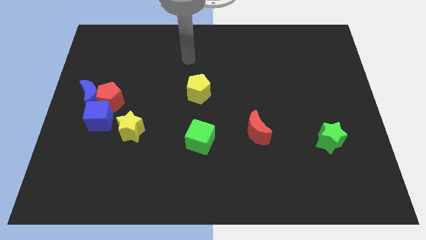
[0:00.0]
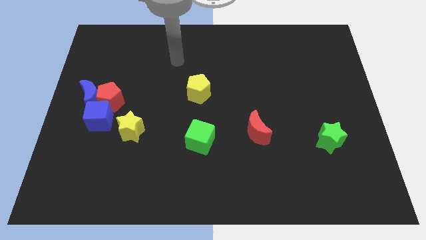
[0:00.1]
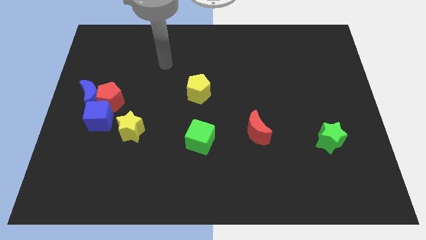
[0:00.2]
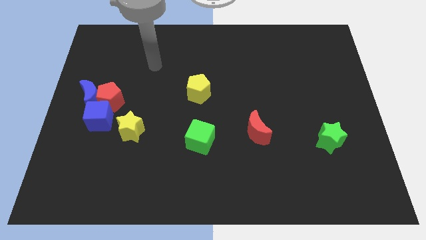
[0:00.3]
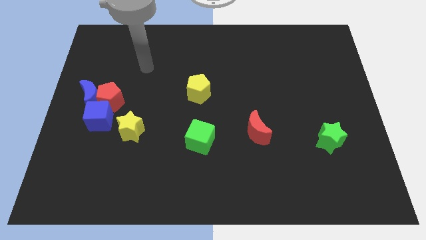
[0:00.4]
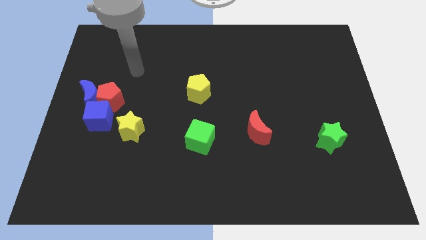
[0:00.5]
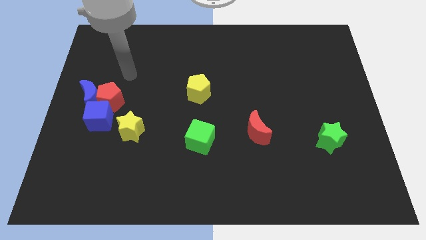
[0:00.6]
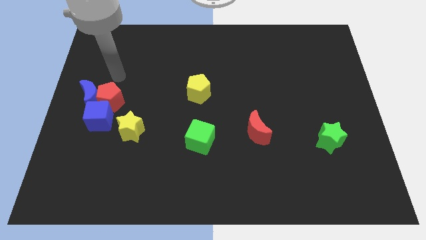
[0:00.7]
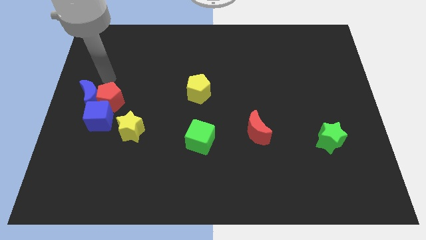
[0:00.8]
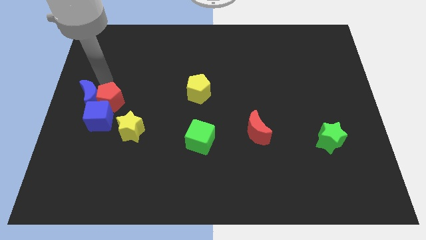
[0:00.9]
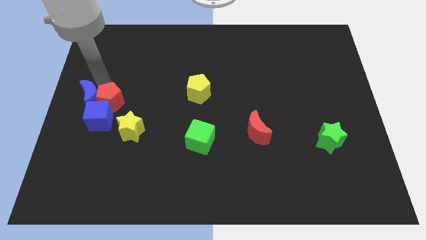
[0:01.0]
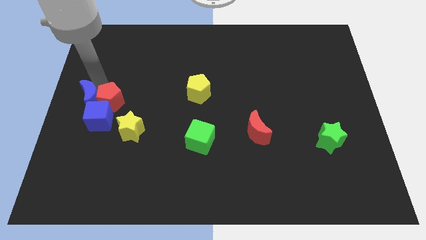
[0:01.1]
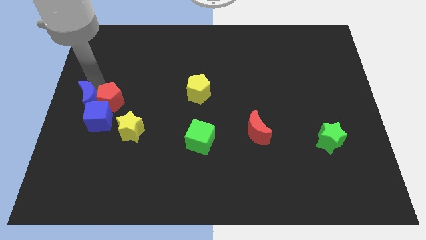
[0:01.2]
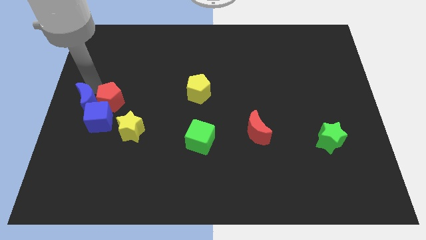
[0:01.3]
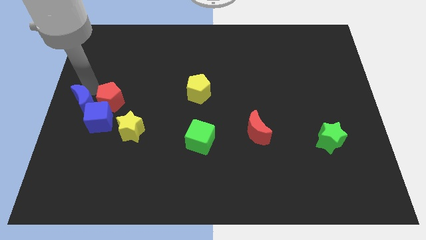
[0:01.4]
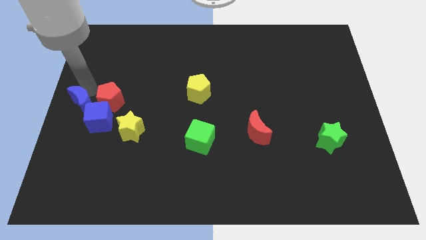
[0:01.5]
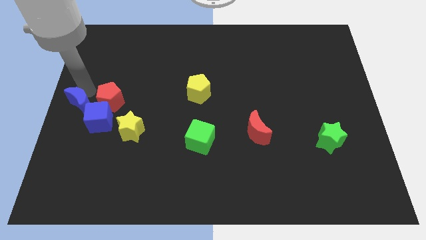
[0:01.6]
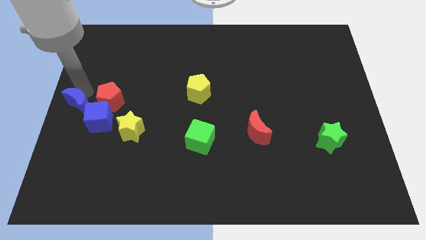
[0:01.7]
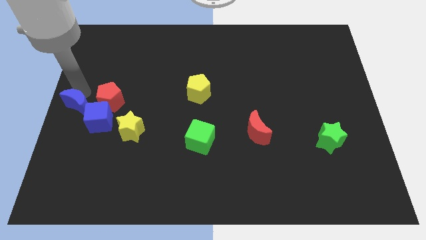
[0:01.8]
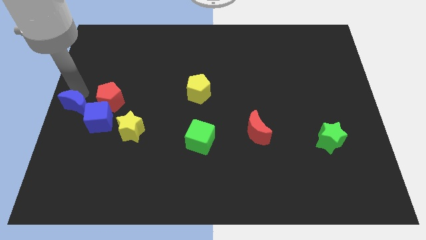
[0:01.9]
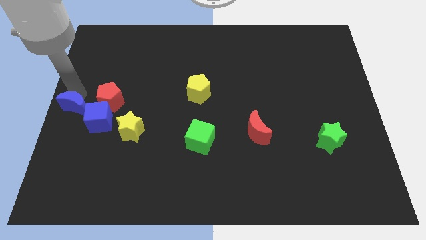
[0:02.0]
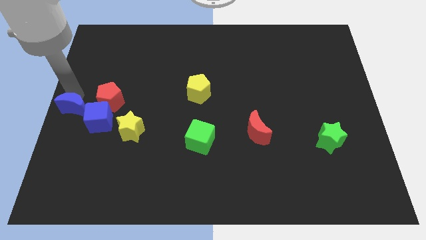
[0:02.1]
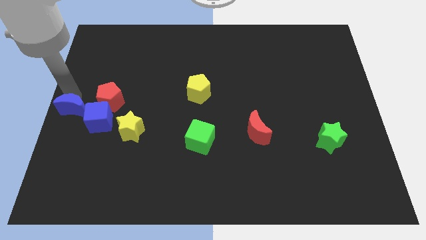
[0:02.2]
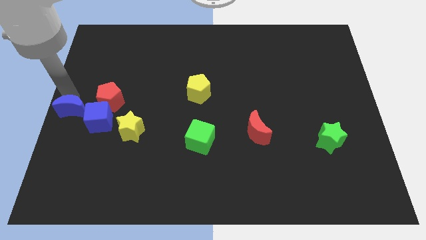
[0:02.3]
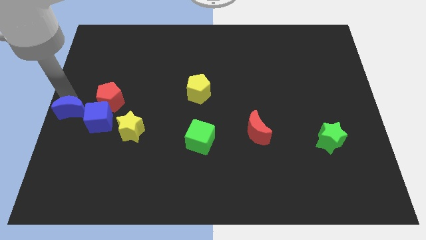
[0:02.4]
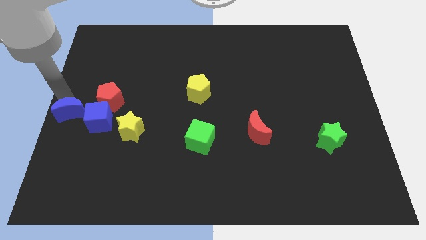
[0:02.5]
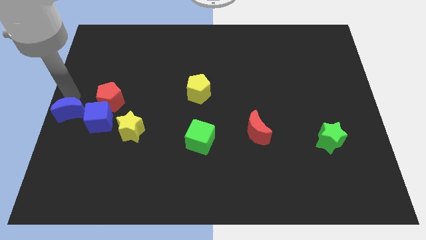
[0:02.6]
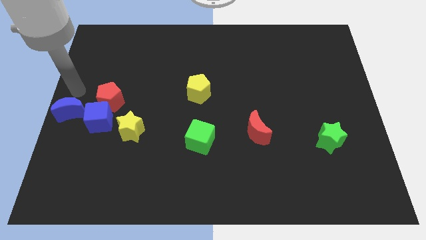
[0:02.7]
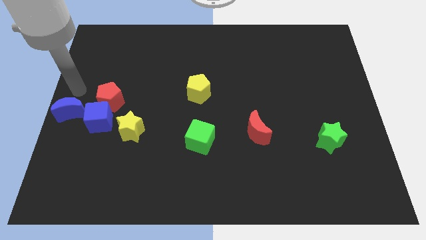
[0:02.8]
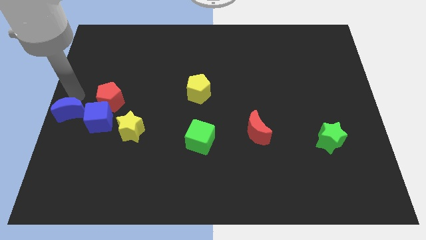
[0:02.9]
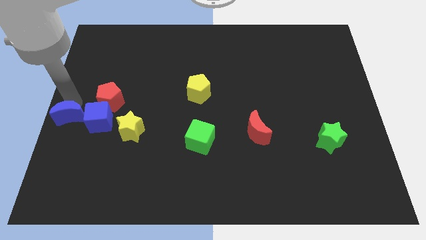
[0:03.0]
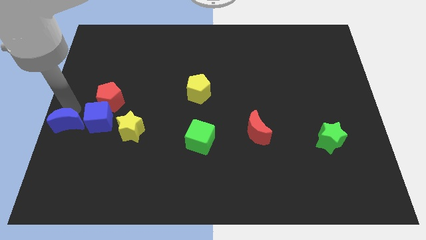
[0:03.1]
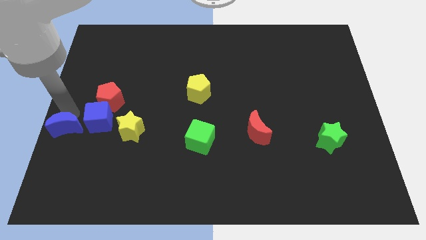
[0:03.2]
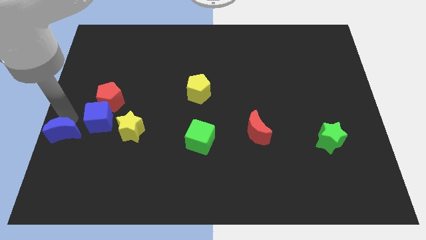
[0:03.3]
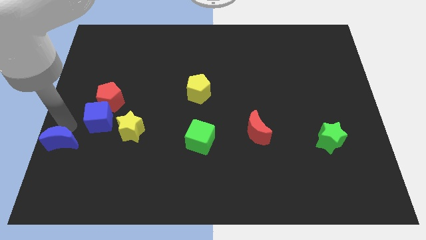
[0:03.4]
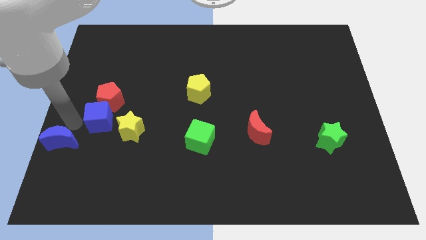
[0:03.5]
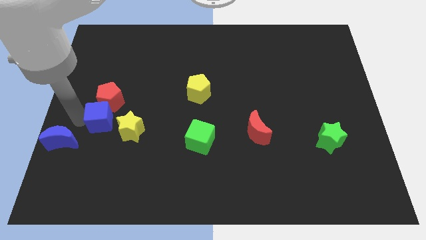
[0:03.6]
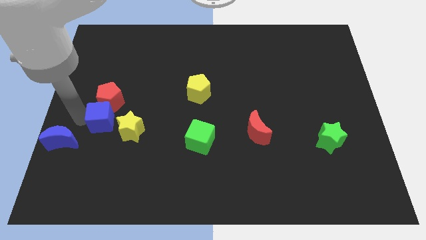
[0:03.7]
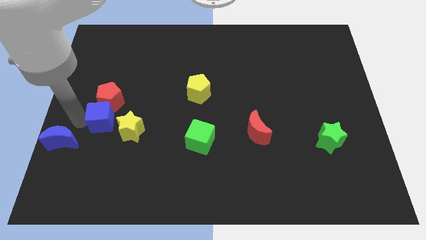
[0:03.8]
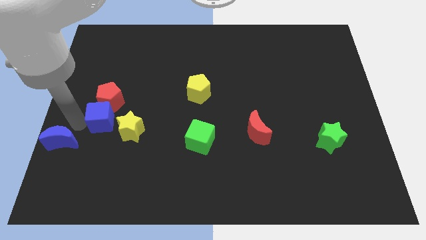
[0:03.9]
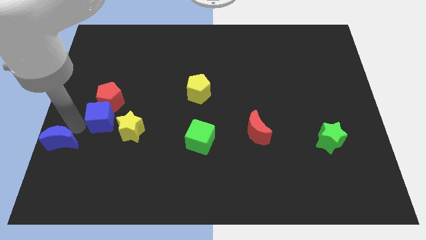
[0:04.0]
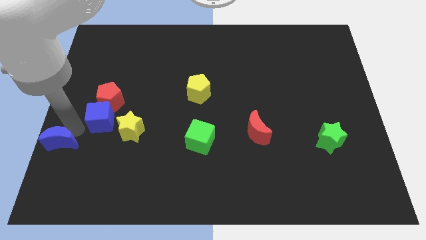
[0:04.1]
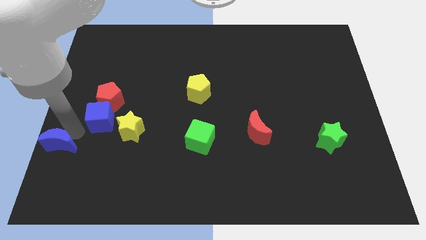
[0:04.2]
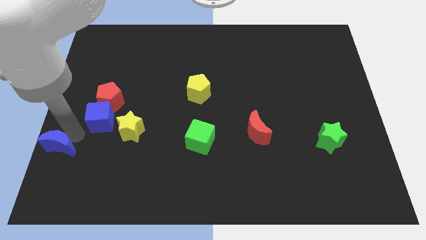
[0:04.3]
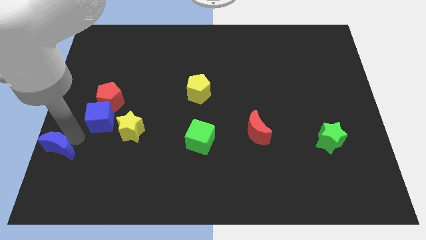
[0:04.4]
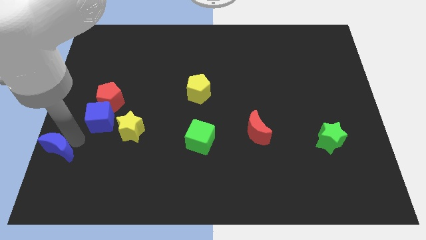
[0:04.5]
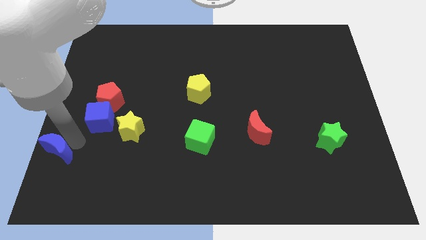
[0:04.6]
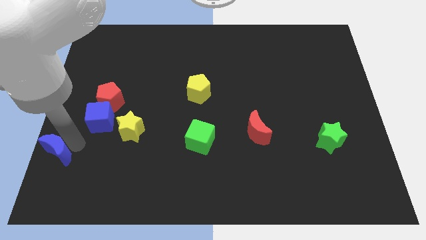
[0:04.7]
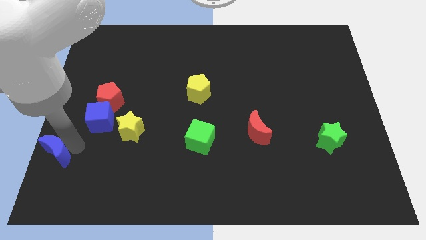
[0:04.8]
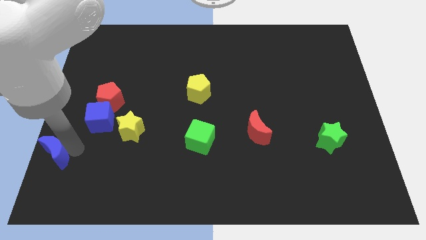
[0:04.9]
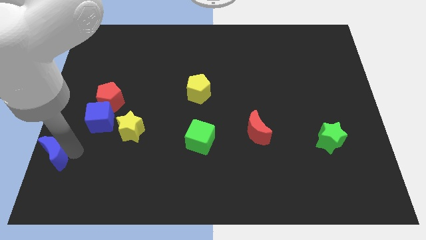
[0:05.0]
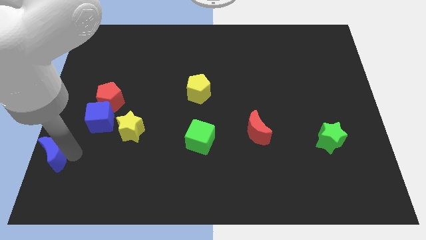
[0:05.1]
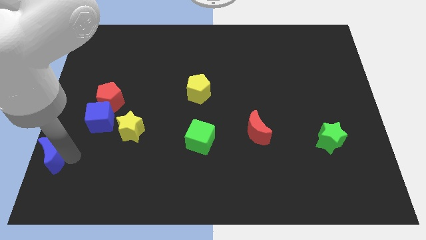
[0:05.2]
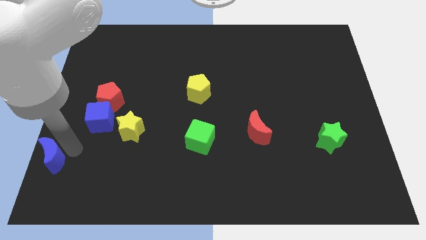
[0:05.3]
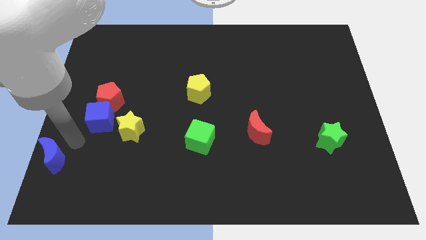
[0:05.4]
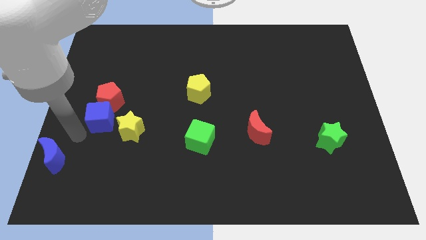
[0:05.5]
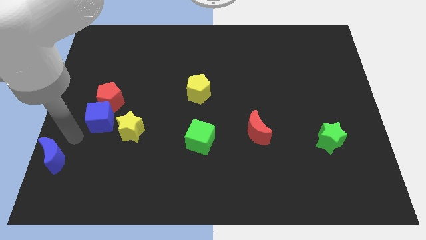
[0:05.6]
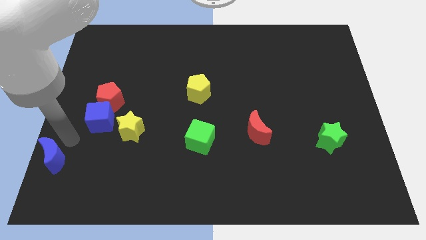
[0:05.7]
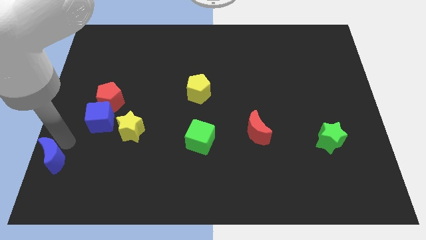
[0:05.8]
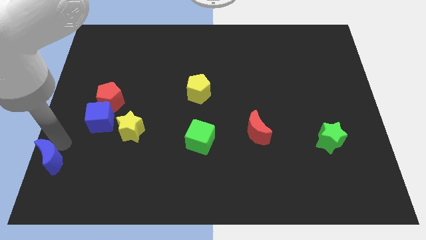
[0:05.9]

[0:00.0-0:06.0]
move the blue moon to the lower left corner
